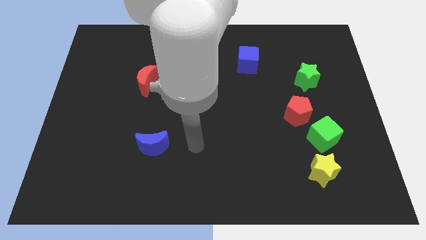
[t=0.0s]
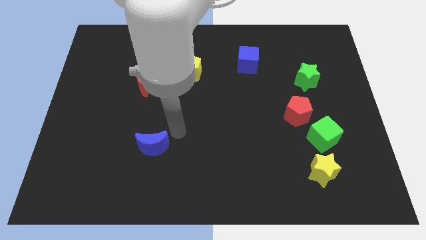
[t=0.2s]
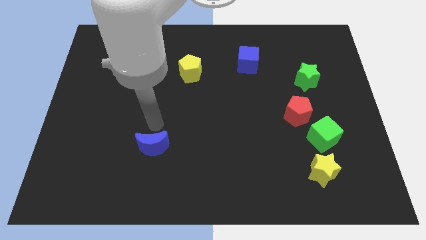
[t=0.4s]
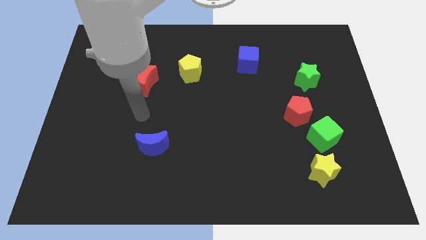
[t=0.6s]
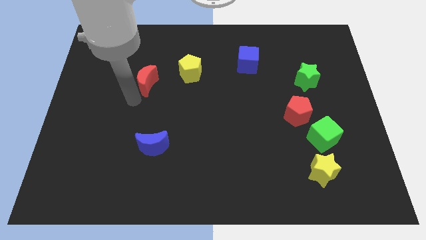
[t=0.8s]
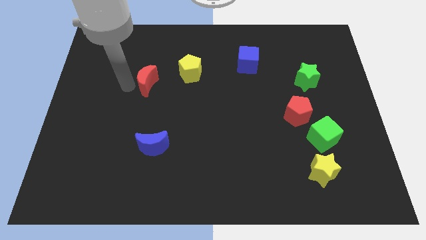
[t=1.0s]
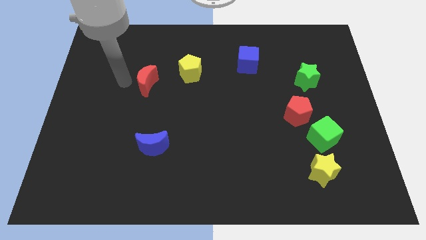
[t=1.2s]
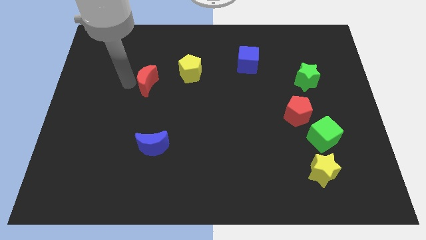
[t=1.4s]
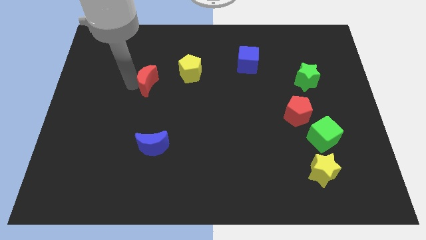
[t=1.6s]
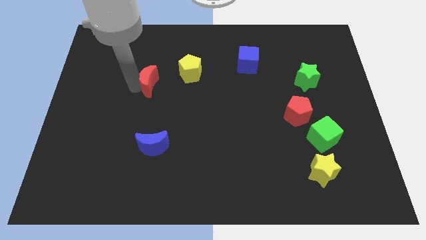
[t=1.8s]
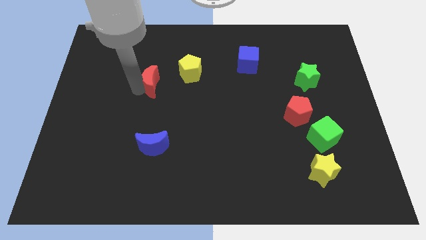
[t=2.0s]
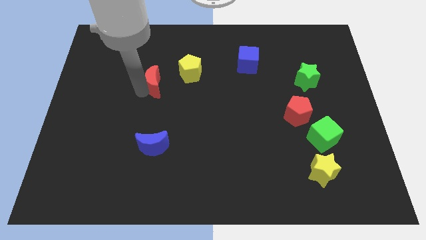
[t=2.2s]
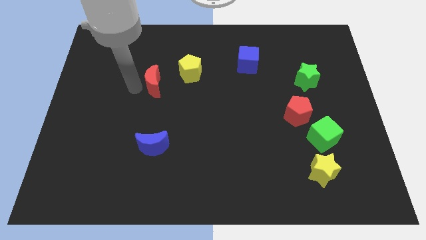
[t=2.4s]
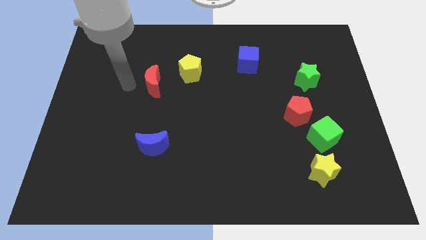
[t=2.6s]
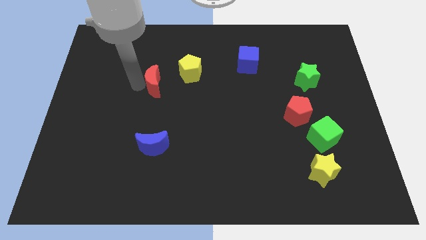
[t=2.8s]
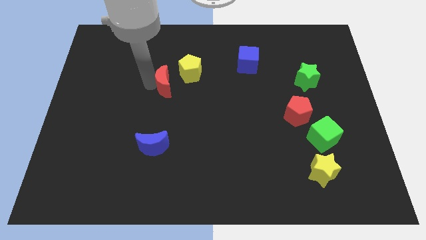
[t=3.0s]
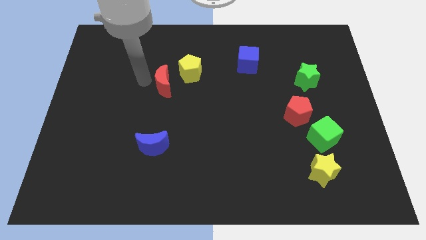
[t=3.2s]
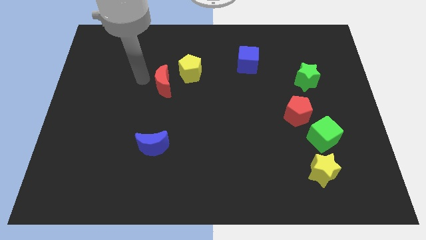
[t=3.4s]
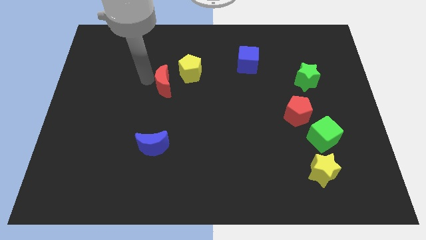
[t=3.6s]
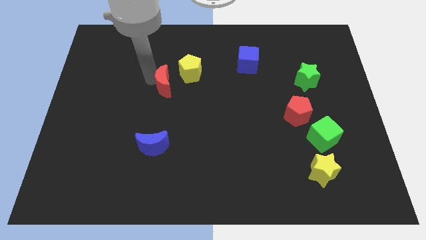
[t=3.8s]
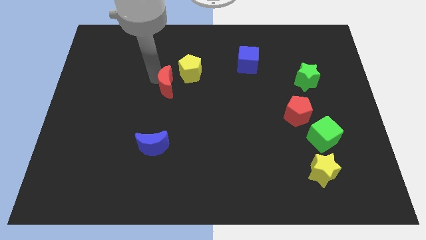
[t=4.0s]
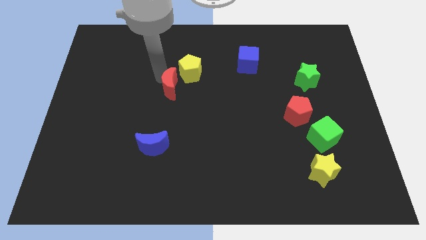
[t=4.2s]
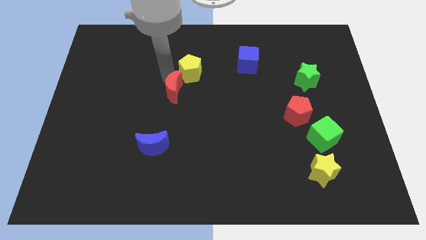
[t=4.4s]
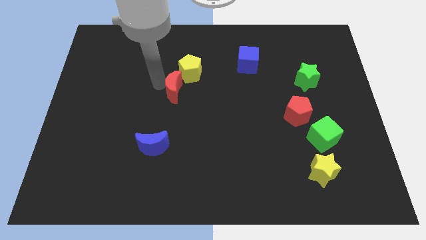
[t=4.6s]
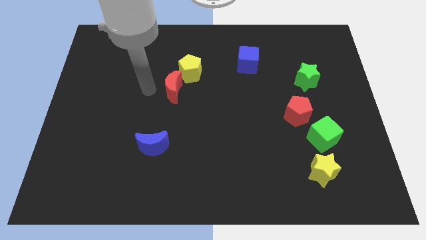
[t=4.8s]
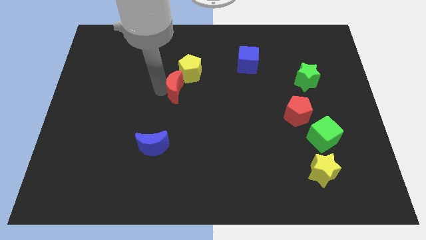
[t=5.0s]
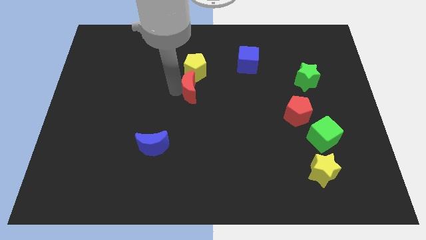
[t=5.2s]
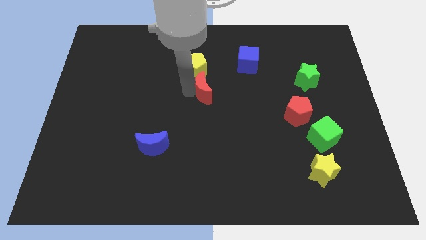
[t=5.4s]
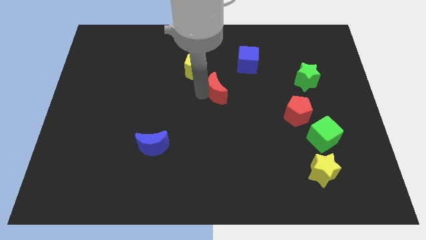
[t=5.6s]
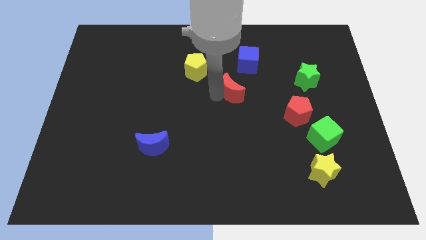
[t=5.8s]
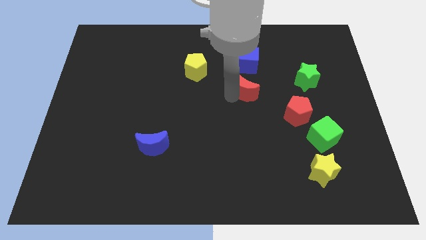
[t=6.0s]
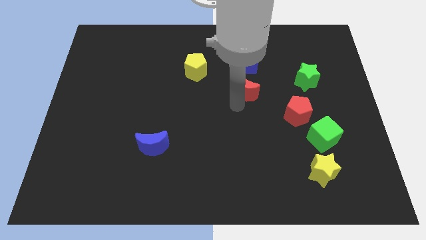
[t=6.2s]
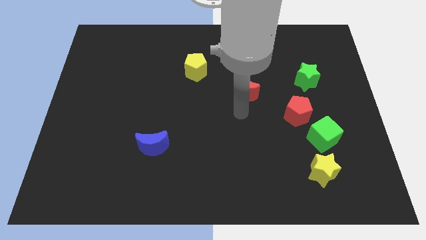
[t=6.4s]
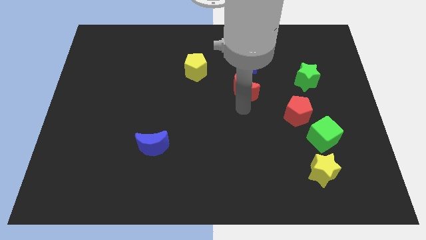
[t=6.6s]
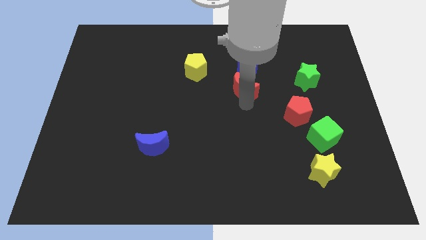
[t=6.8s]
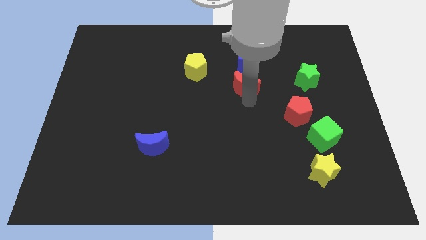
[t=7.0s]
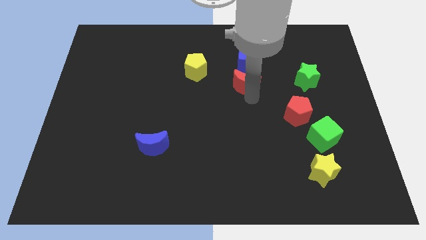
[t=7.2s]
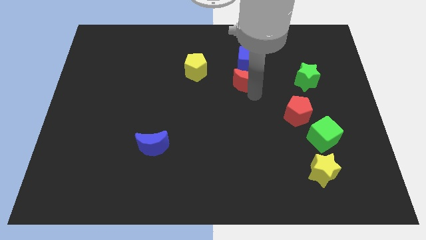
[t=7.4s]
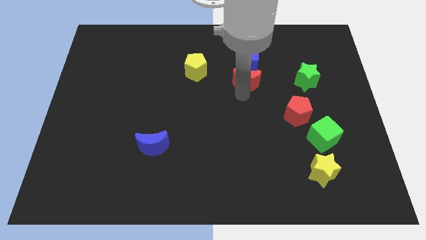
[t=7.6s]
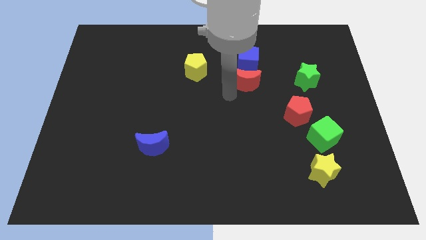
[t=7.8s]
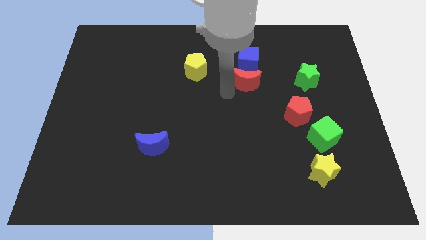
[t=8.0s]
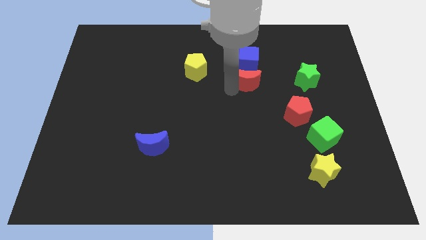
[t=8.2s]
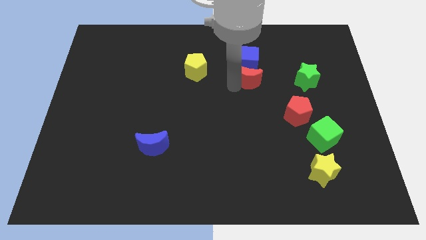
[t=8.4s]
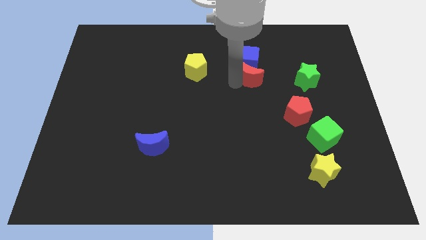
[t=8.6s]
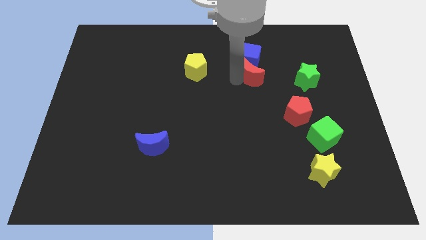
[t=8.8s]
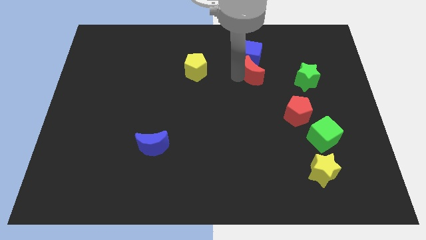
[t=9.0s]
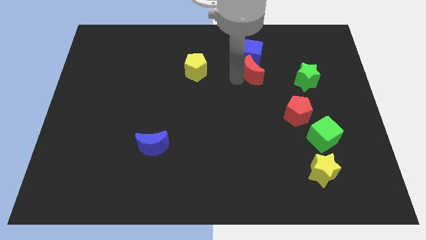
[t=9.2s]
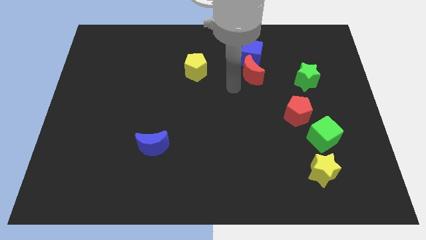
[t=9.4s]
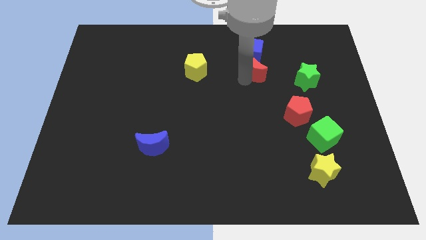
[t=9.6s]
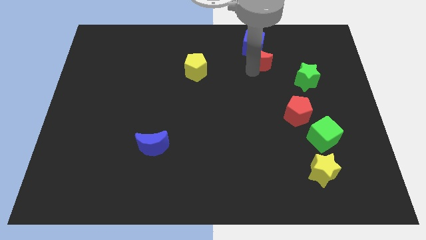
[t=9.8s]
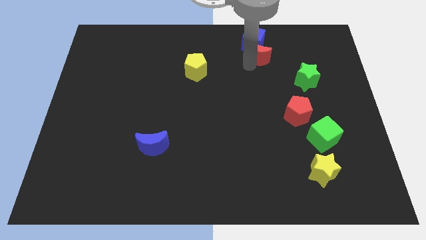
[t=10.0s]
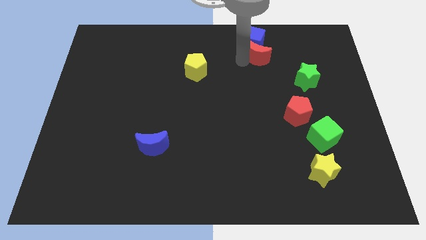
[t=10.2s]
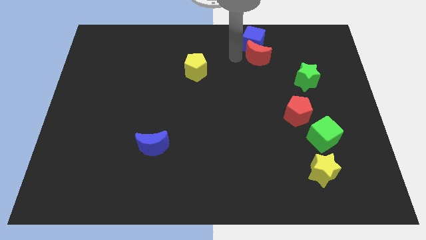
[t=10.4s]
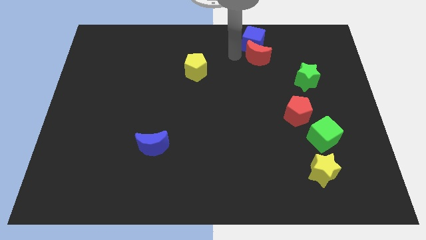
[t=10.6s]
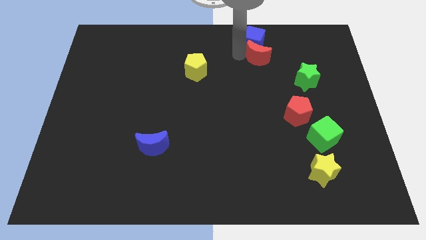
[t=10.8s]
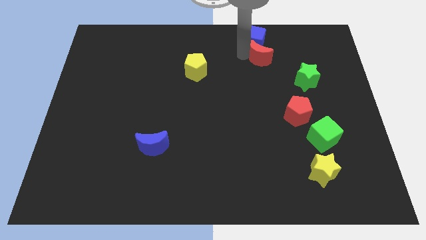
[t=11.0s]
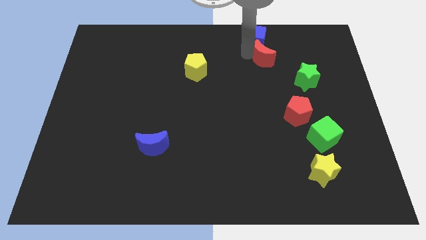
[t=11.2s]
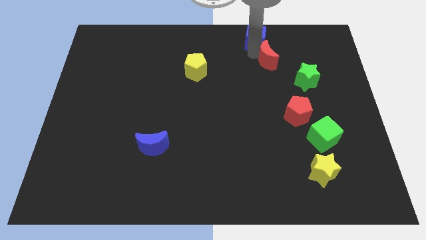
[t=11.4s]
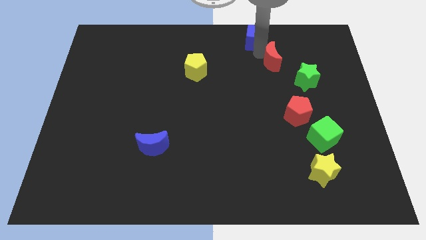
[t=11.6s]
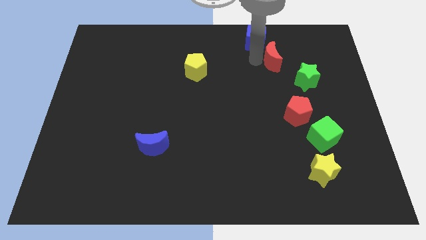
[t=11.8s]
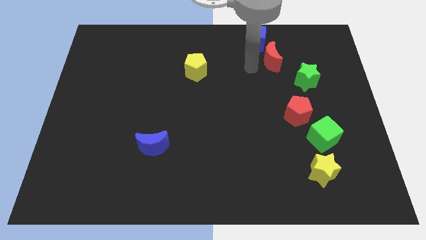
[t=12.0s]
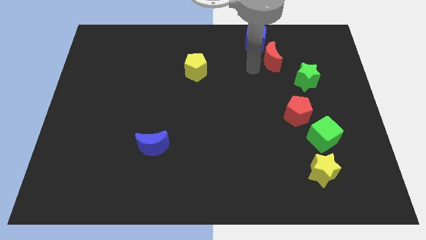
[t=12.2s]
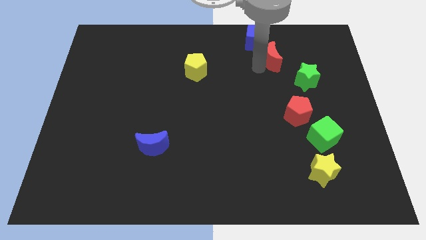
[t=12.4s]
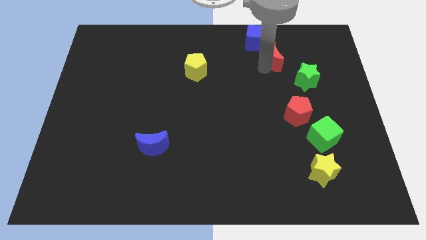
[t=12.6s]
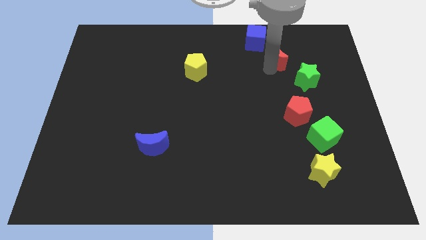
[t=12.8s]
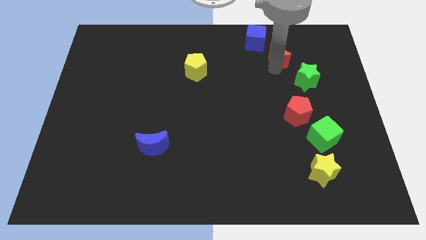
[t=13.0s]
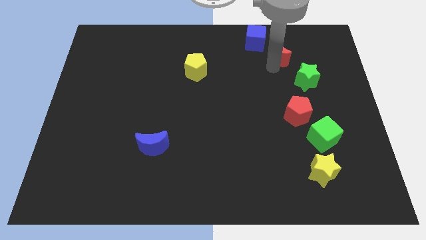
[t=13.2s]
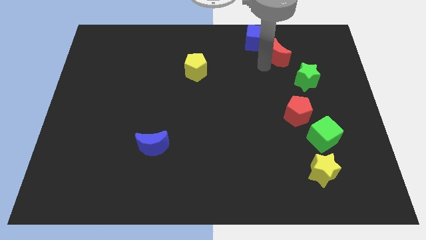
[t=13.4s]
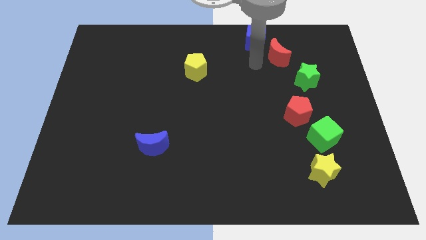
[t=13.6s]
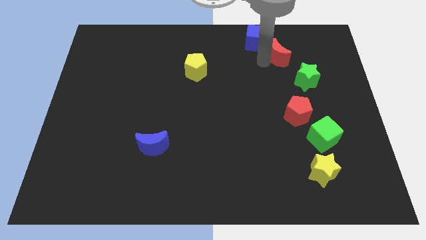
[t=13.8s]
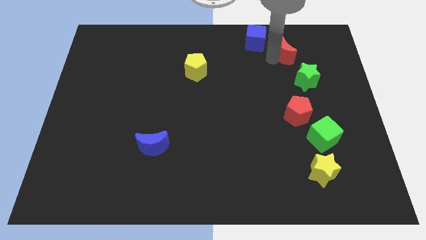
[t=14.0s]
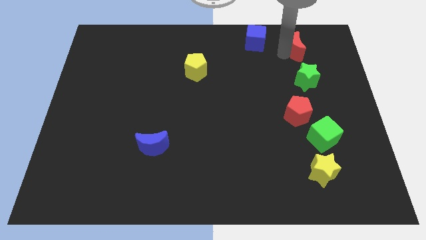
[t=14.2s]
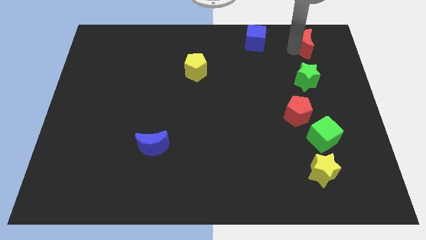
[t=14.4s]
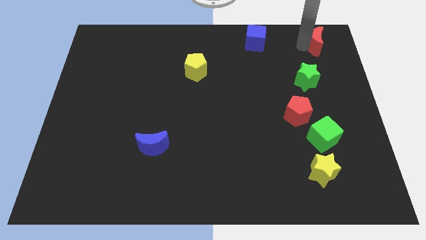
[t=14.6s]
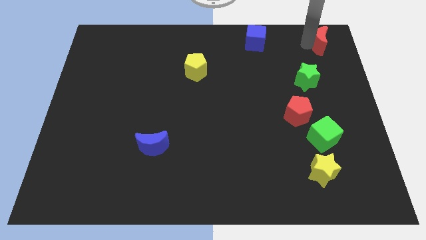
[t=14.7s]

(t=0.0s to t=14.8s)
slide the red moon to the top right
